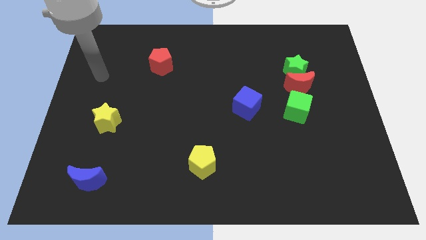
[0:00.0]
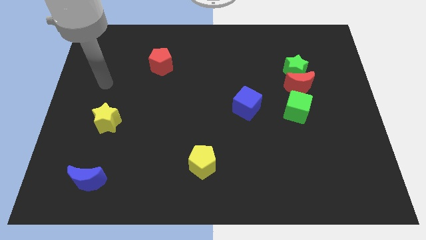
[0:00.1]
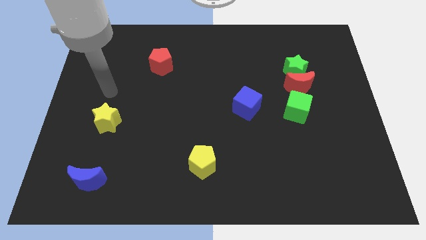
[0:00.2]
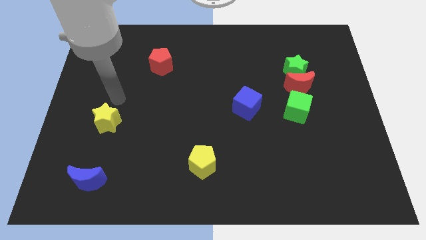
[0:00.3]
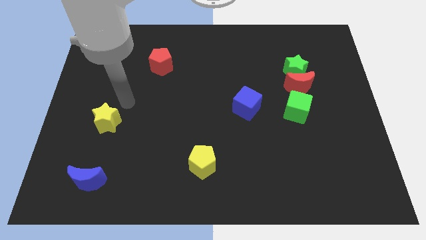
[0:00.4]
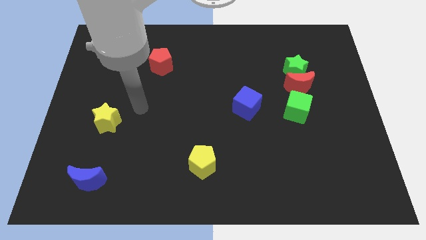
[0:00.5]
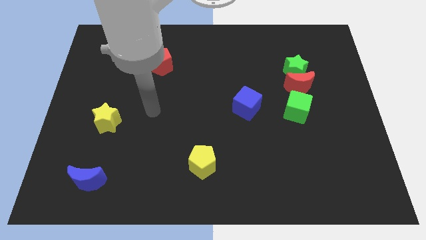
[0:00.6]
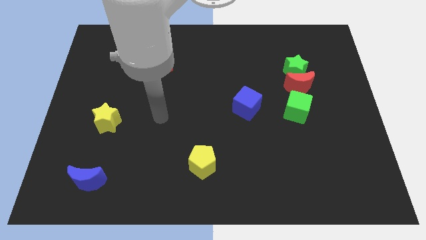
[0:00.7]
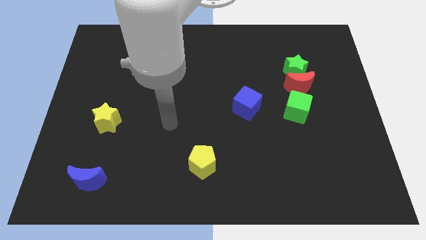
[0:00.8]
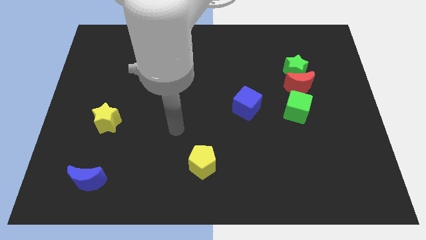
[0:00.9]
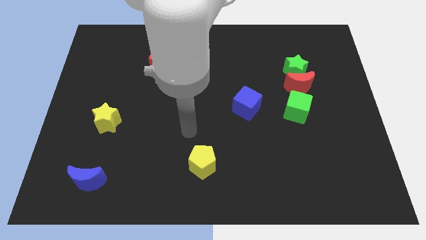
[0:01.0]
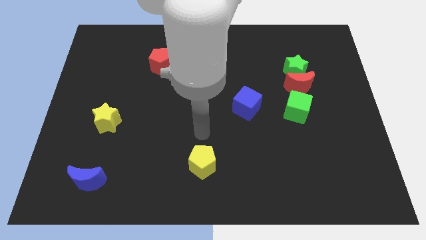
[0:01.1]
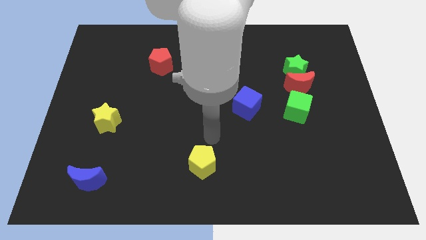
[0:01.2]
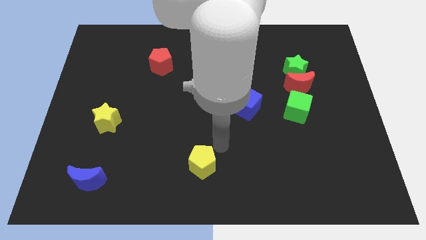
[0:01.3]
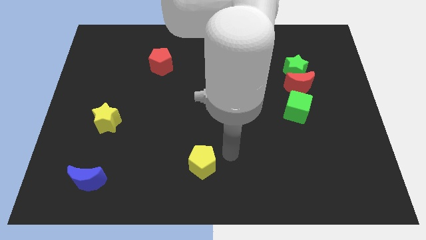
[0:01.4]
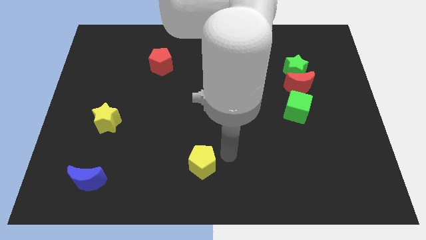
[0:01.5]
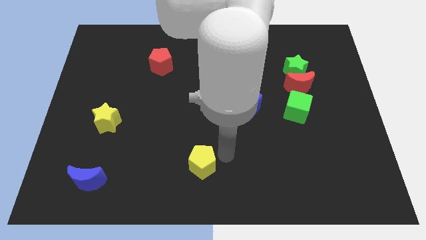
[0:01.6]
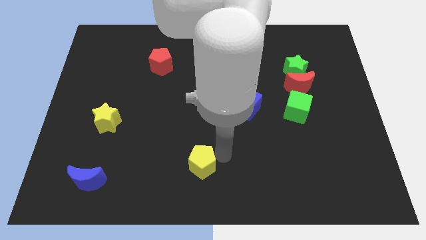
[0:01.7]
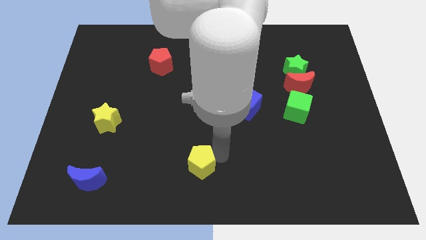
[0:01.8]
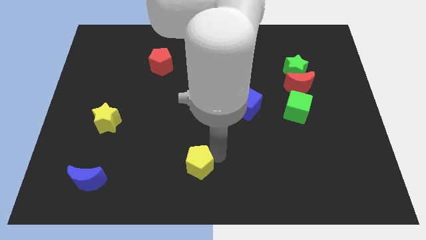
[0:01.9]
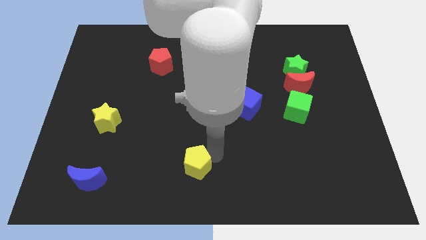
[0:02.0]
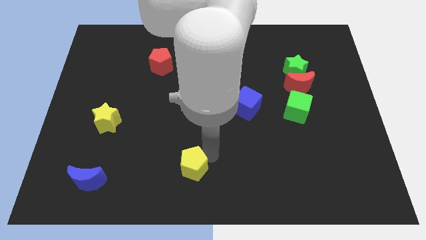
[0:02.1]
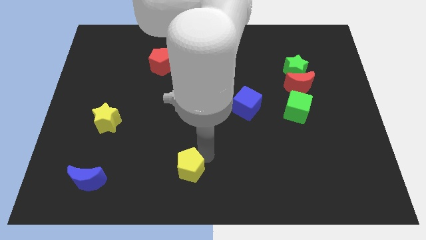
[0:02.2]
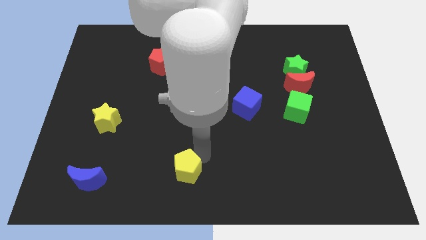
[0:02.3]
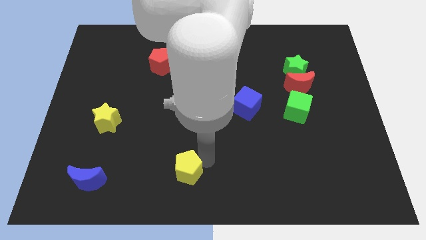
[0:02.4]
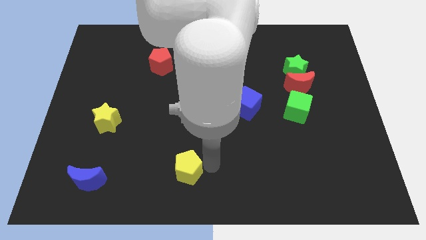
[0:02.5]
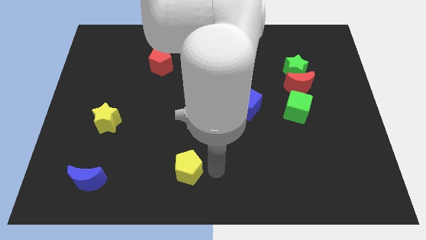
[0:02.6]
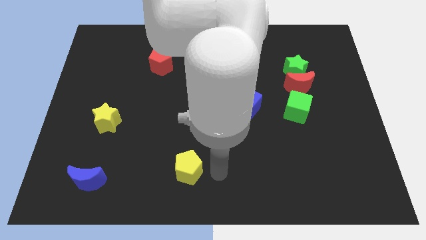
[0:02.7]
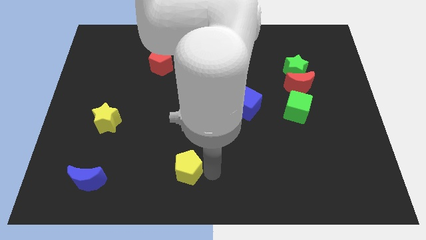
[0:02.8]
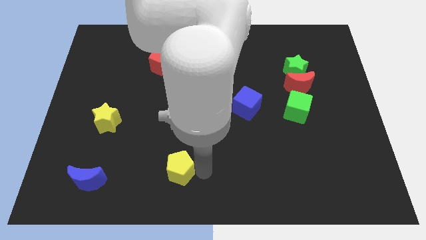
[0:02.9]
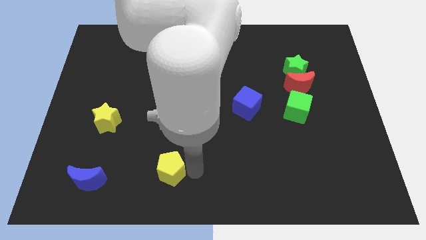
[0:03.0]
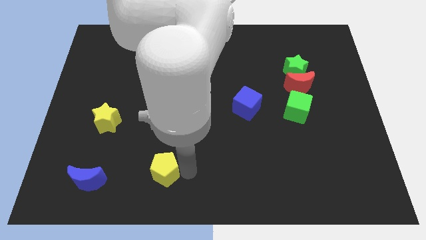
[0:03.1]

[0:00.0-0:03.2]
move the yellow pentagon left a little bit

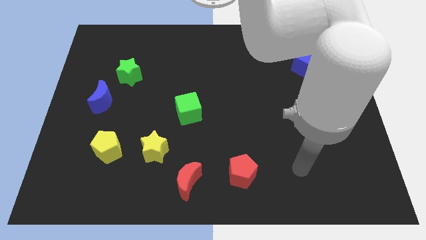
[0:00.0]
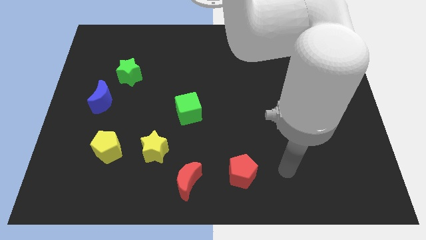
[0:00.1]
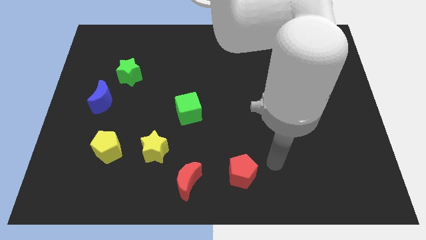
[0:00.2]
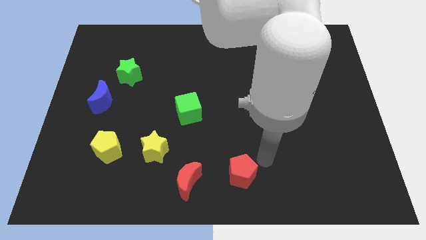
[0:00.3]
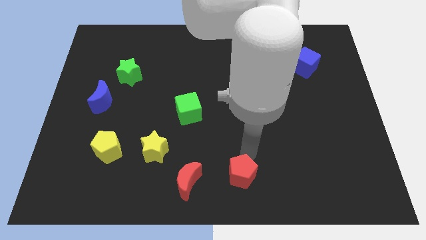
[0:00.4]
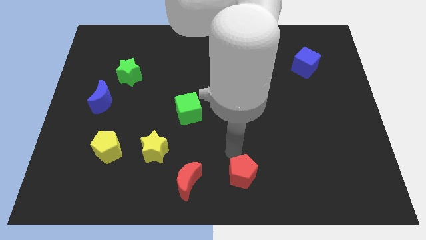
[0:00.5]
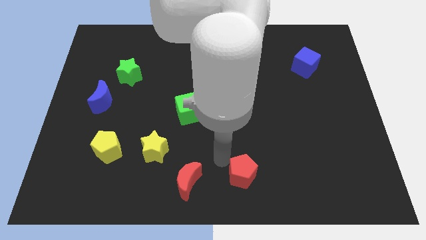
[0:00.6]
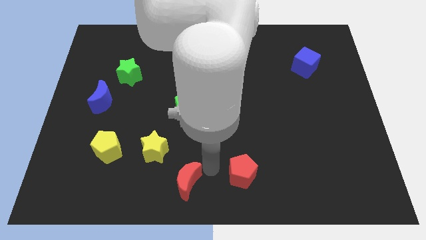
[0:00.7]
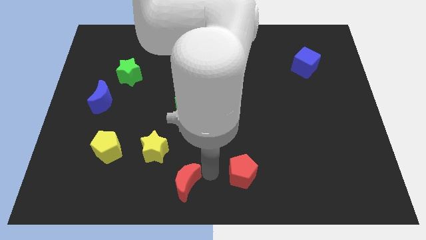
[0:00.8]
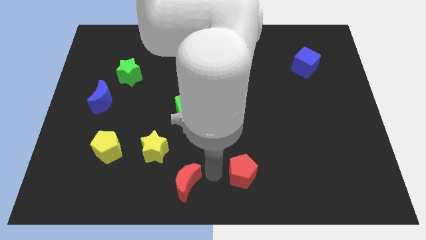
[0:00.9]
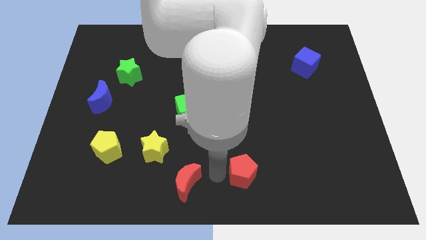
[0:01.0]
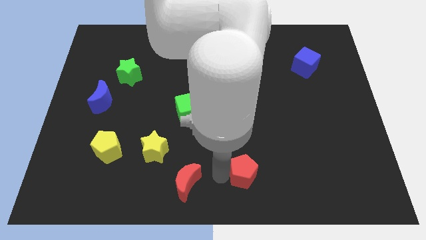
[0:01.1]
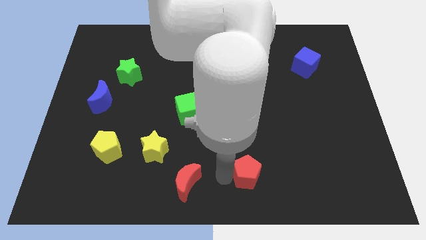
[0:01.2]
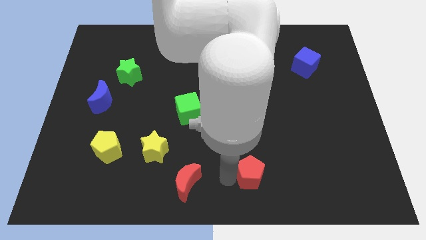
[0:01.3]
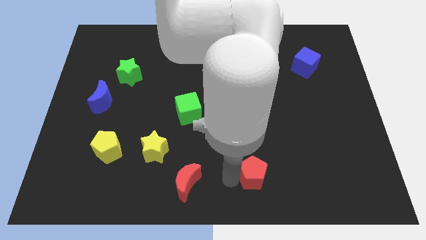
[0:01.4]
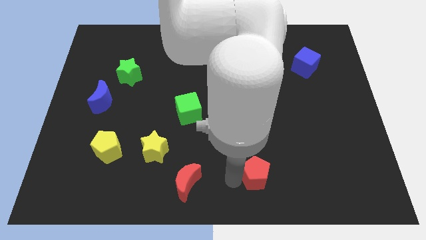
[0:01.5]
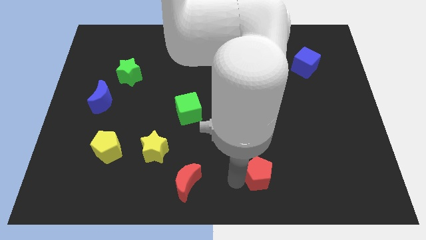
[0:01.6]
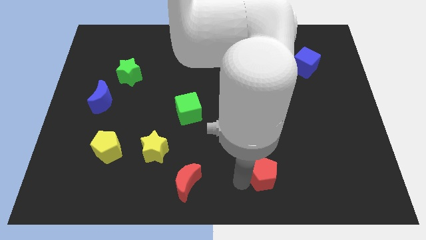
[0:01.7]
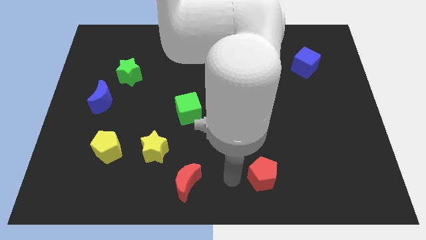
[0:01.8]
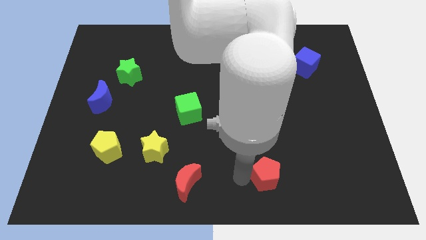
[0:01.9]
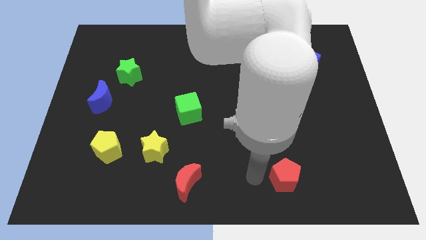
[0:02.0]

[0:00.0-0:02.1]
slightly slide the red pentagon right

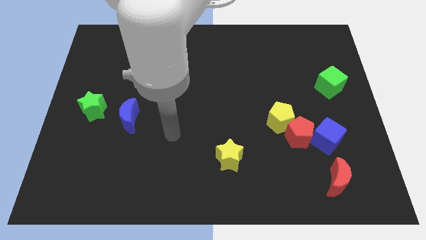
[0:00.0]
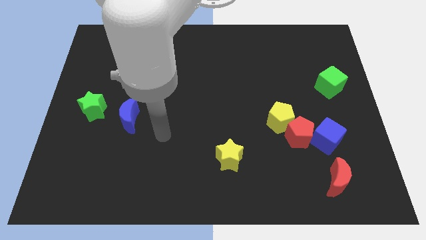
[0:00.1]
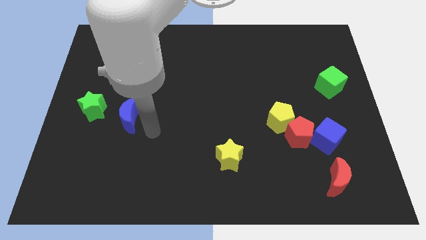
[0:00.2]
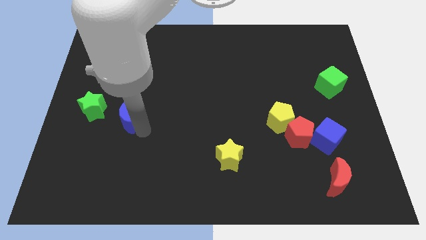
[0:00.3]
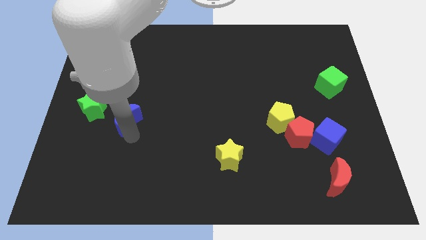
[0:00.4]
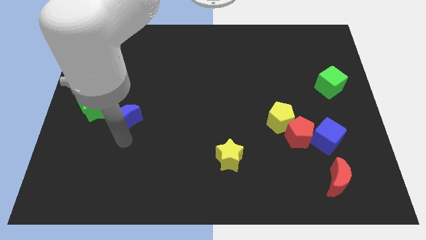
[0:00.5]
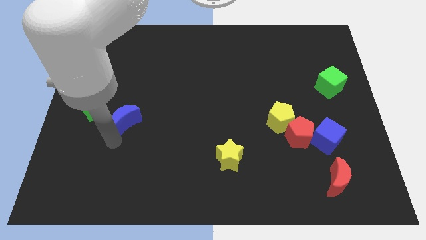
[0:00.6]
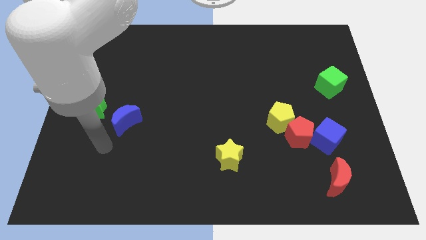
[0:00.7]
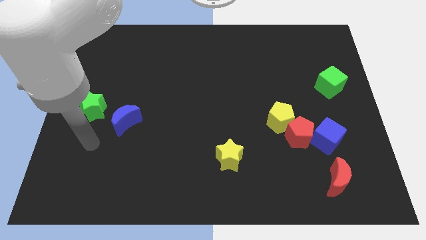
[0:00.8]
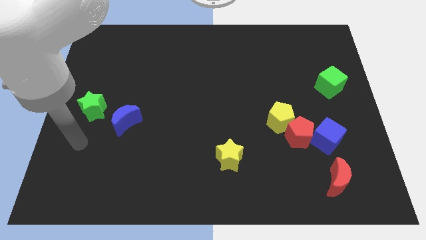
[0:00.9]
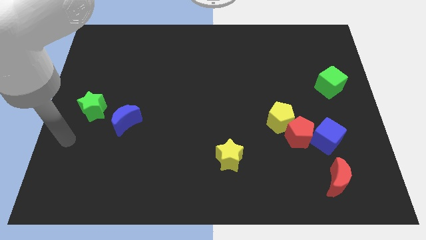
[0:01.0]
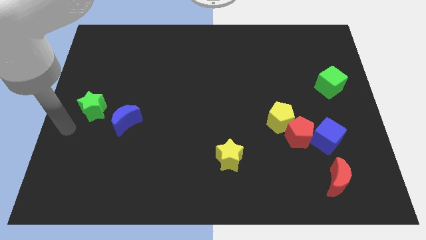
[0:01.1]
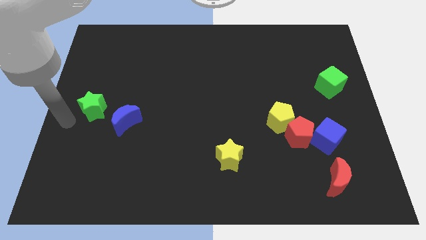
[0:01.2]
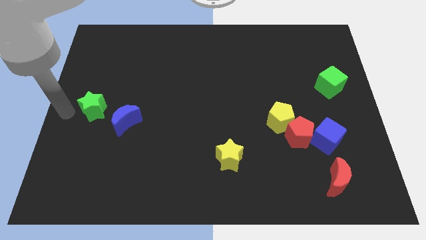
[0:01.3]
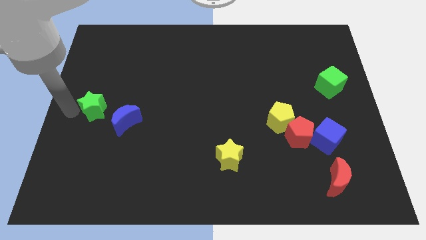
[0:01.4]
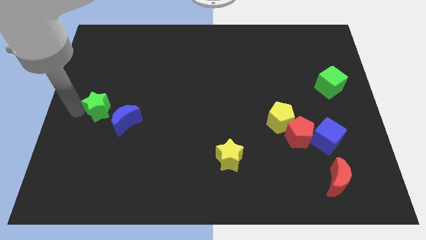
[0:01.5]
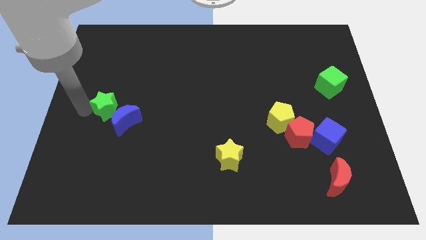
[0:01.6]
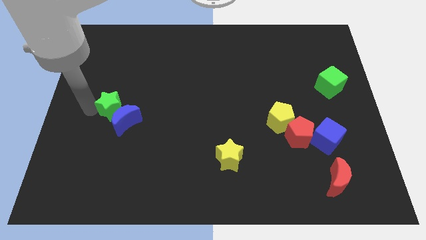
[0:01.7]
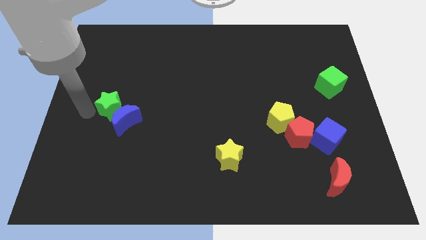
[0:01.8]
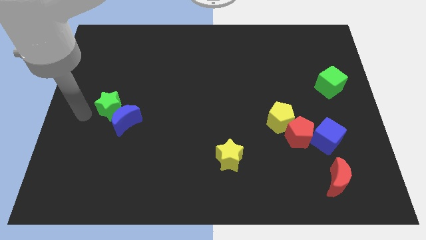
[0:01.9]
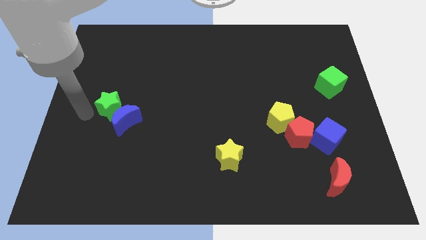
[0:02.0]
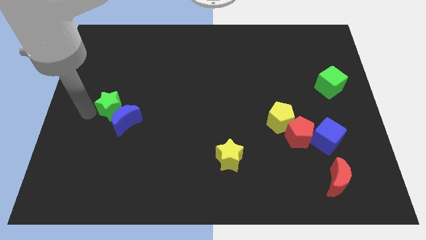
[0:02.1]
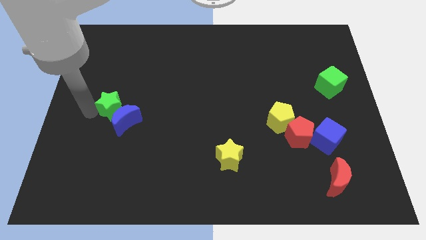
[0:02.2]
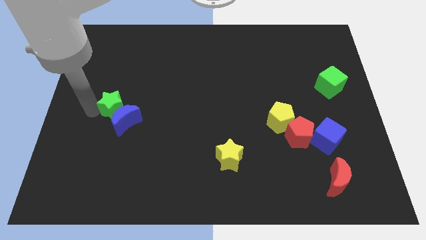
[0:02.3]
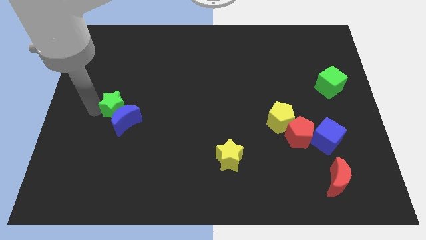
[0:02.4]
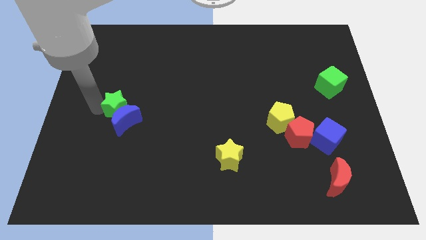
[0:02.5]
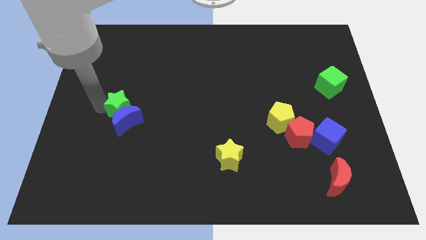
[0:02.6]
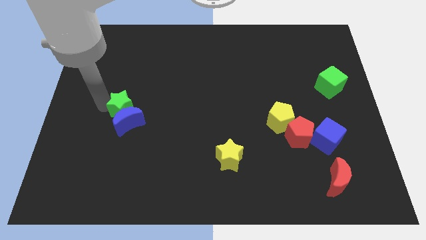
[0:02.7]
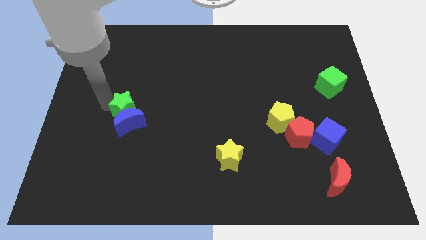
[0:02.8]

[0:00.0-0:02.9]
slide the green star a little bit to the right
